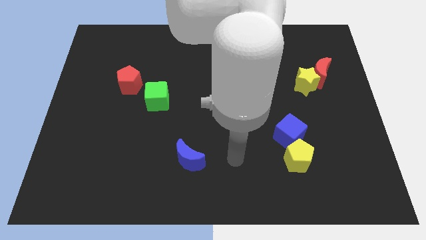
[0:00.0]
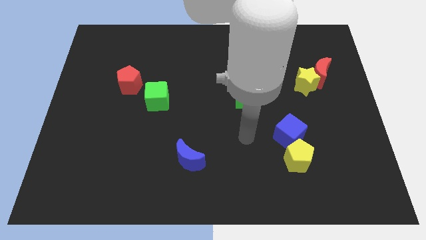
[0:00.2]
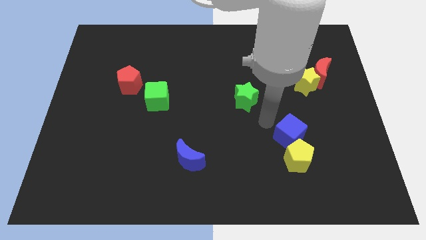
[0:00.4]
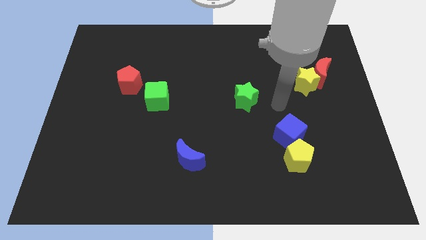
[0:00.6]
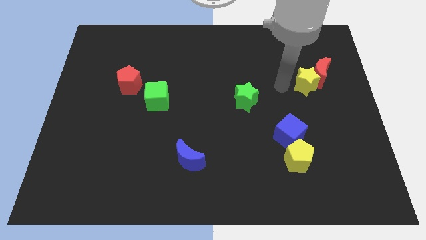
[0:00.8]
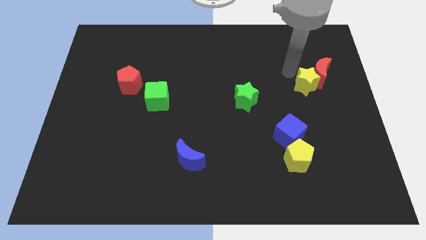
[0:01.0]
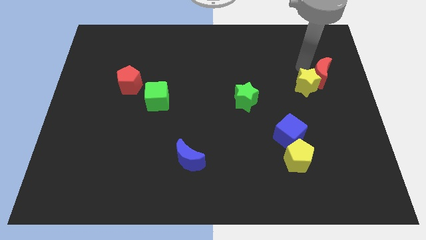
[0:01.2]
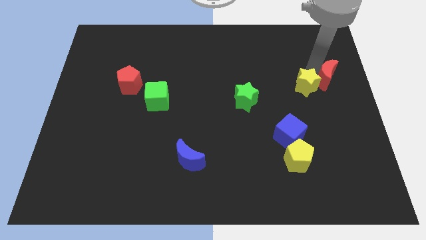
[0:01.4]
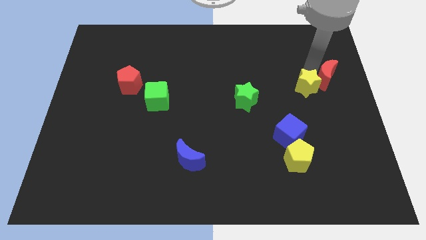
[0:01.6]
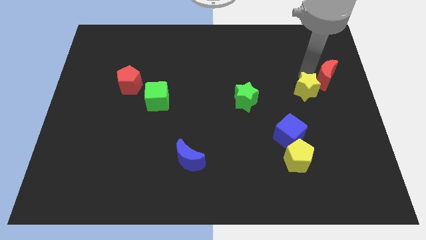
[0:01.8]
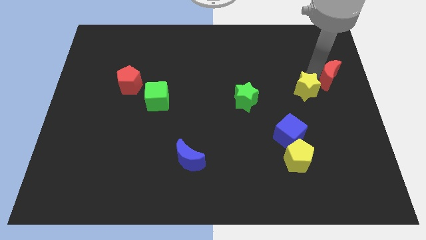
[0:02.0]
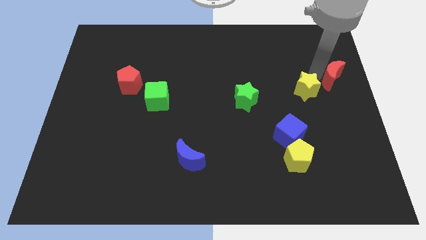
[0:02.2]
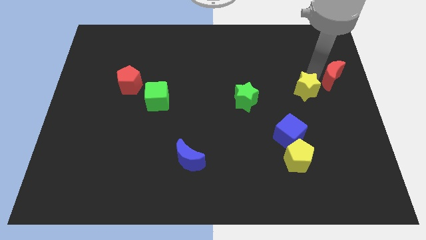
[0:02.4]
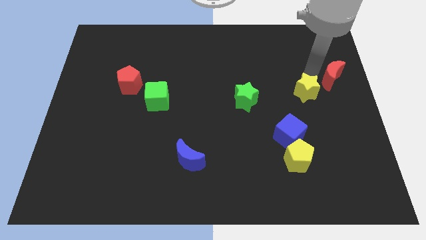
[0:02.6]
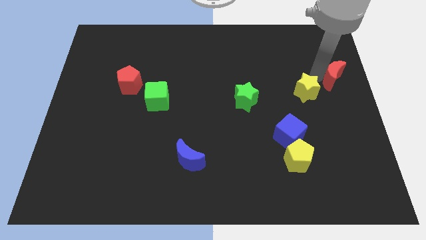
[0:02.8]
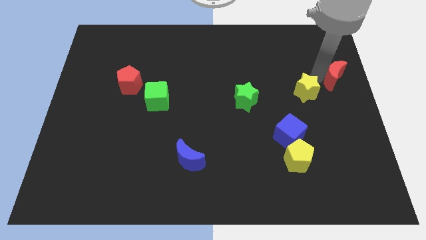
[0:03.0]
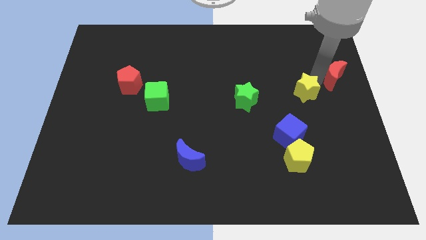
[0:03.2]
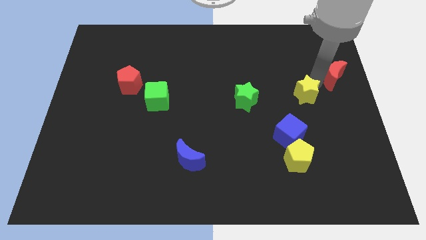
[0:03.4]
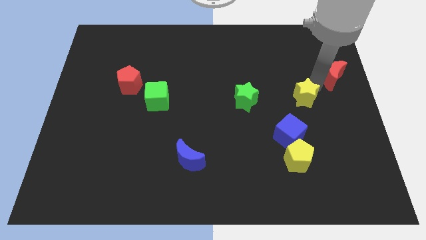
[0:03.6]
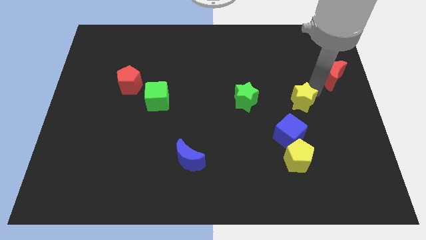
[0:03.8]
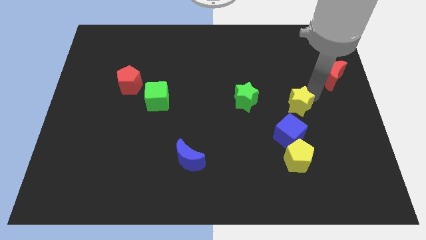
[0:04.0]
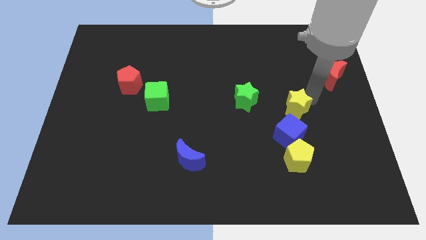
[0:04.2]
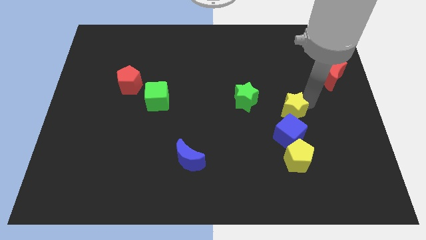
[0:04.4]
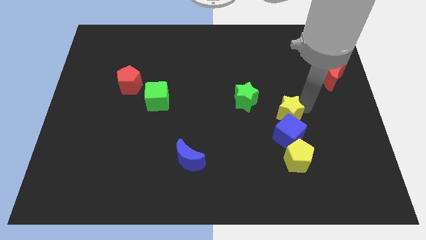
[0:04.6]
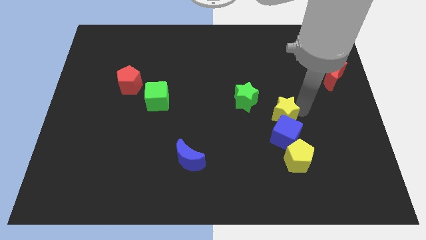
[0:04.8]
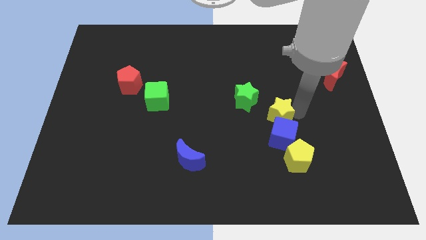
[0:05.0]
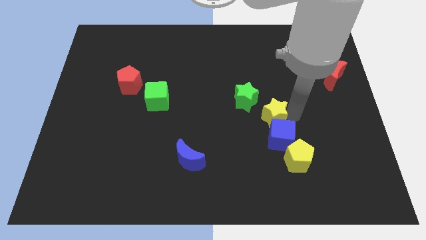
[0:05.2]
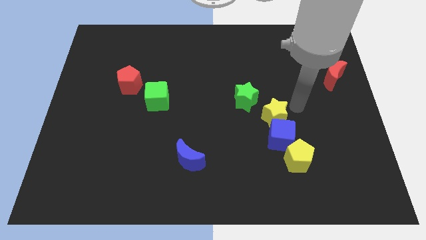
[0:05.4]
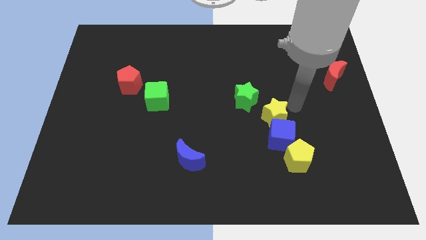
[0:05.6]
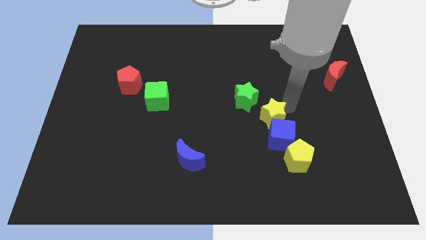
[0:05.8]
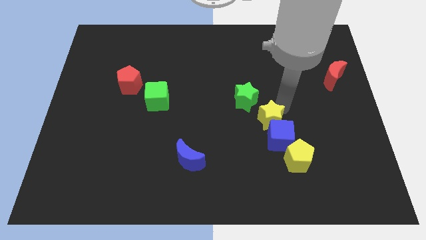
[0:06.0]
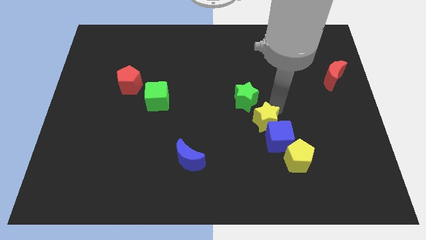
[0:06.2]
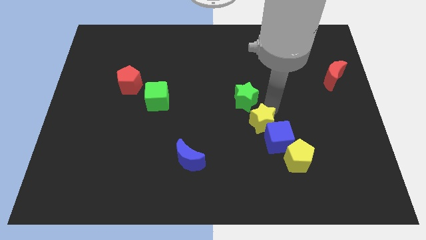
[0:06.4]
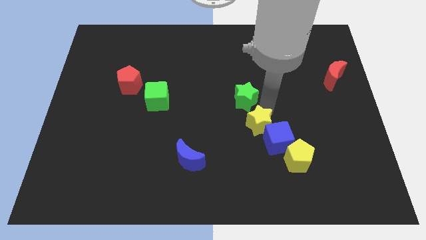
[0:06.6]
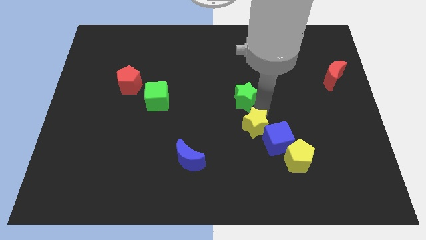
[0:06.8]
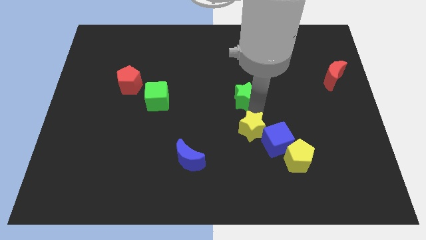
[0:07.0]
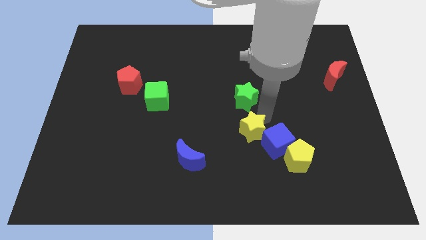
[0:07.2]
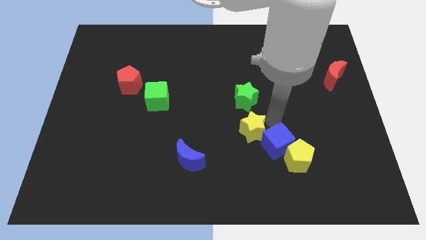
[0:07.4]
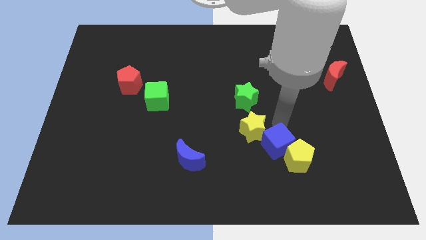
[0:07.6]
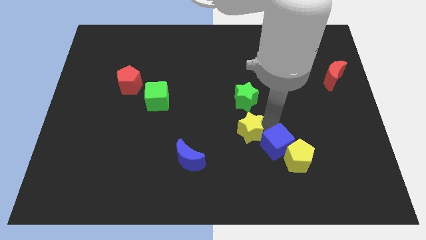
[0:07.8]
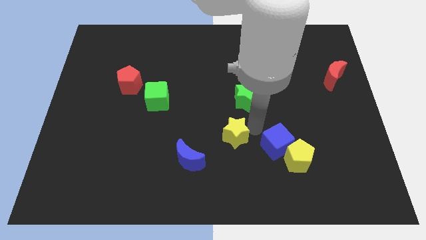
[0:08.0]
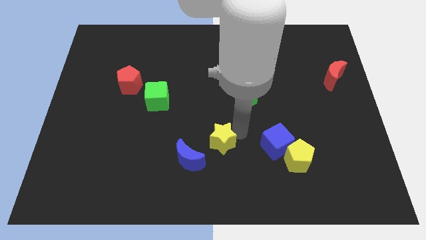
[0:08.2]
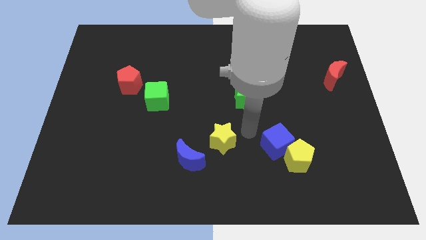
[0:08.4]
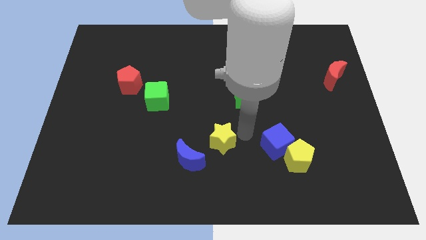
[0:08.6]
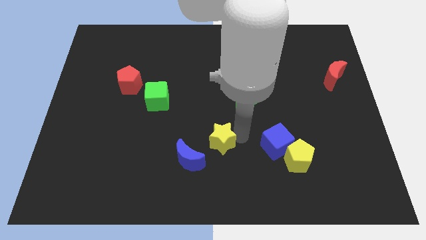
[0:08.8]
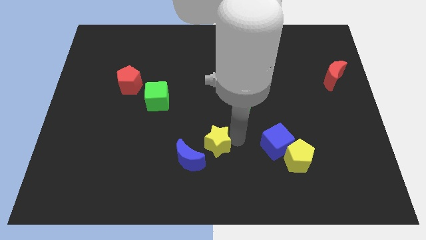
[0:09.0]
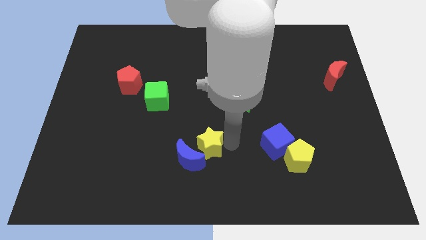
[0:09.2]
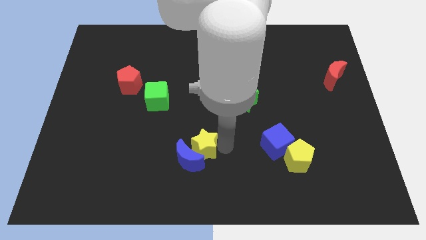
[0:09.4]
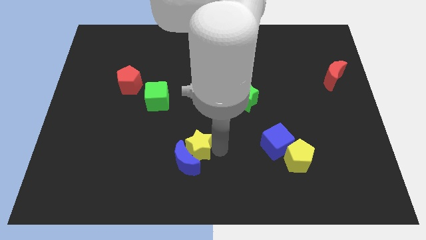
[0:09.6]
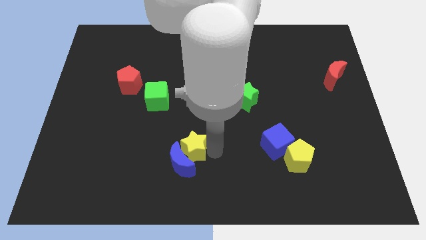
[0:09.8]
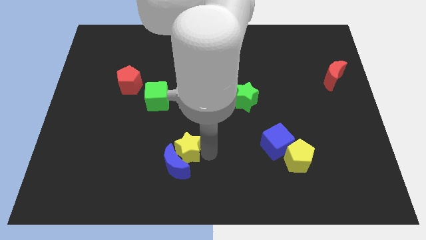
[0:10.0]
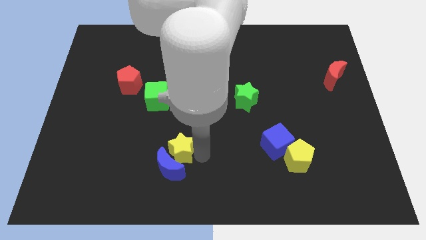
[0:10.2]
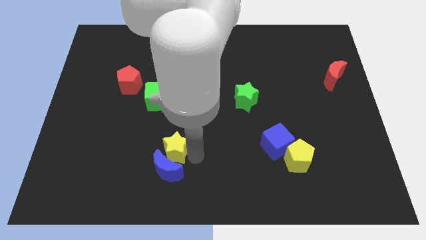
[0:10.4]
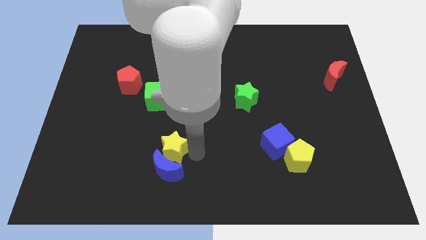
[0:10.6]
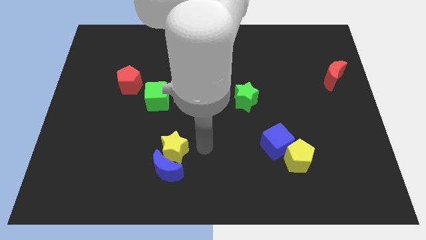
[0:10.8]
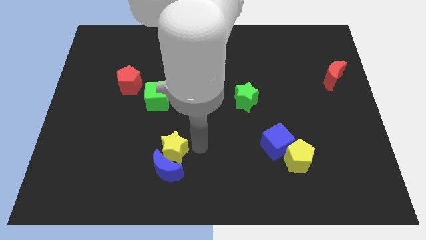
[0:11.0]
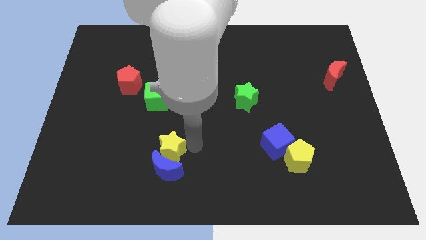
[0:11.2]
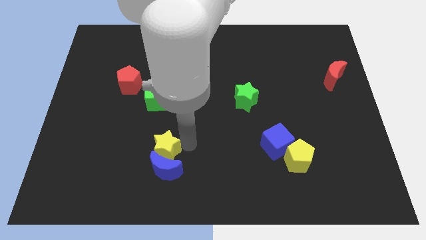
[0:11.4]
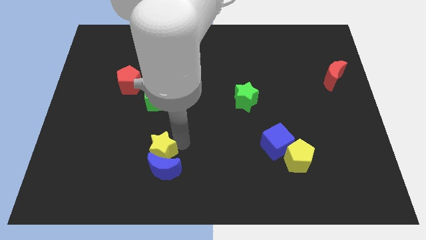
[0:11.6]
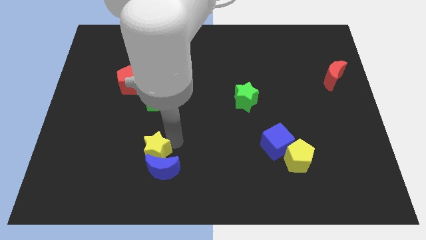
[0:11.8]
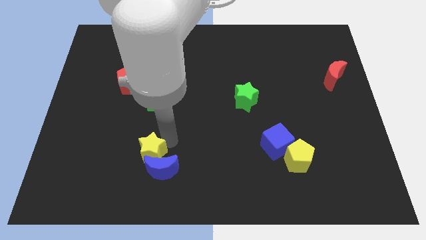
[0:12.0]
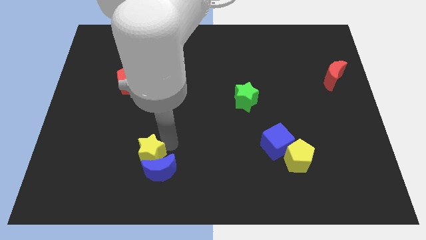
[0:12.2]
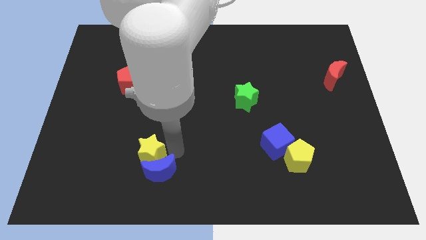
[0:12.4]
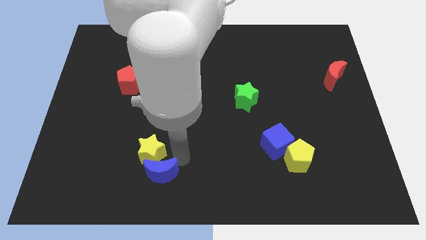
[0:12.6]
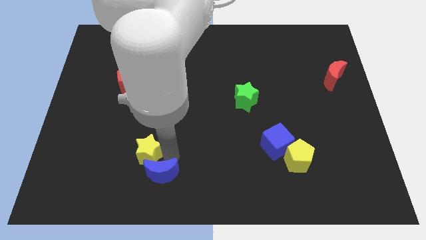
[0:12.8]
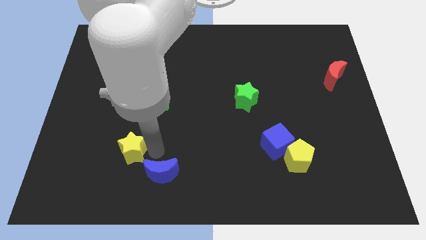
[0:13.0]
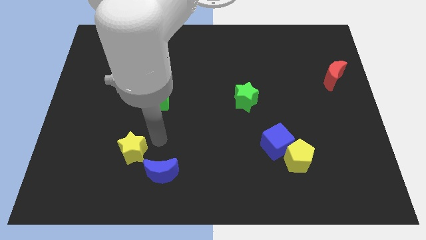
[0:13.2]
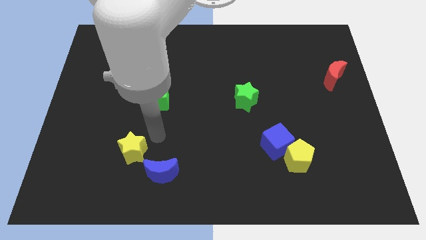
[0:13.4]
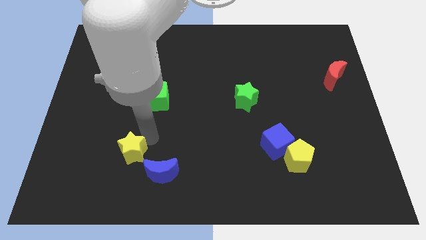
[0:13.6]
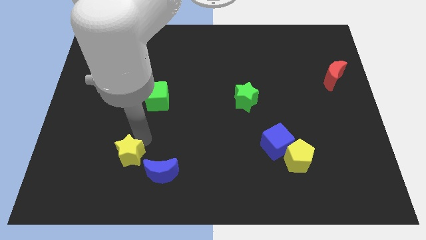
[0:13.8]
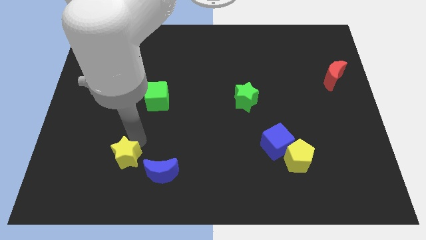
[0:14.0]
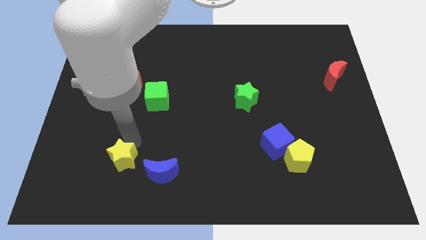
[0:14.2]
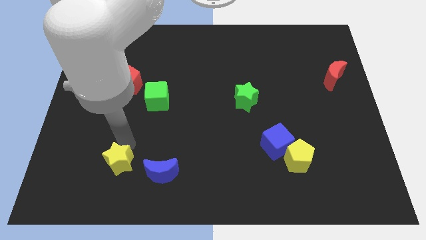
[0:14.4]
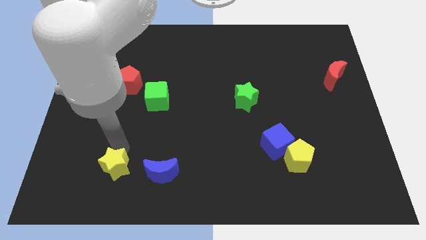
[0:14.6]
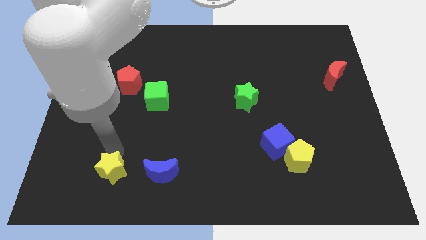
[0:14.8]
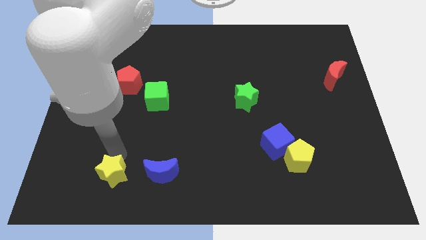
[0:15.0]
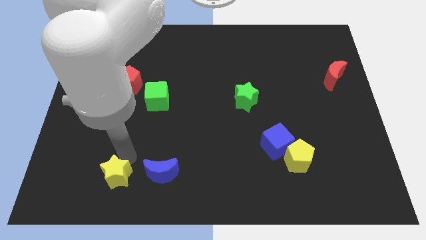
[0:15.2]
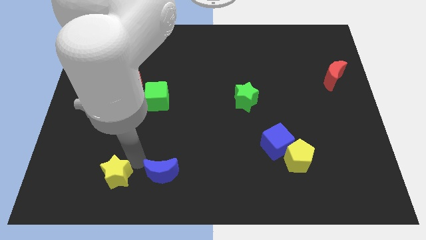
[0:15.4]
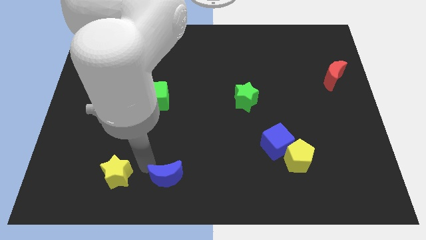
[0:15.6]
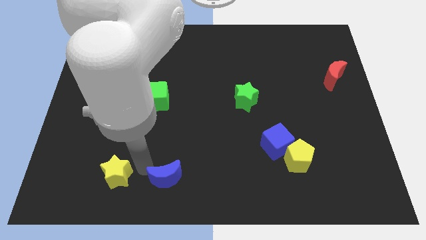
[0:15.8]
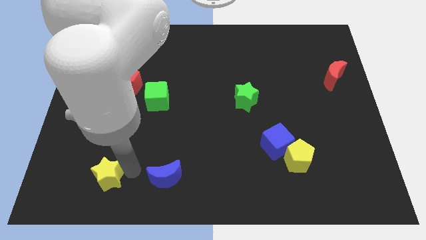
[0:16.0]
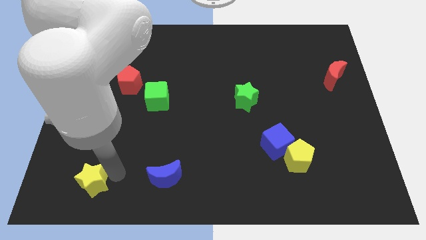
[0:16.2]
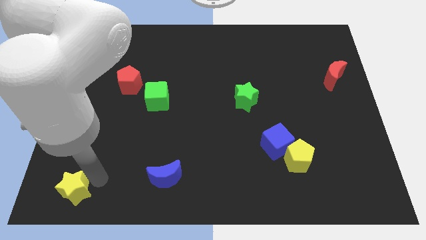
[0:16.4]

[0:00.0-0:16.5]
put the yellow star to the bottom left
